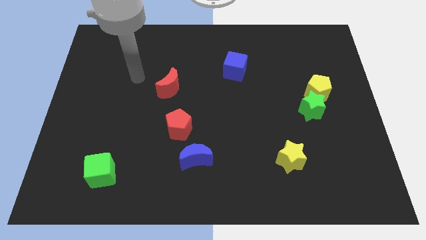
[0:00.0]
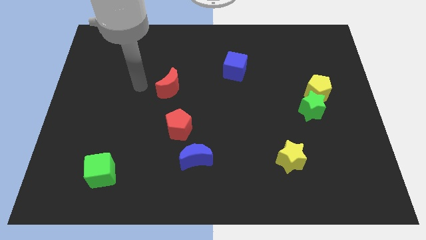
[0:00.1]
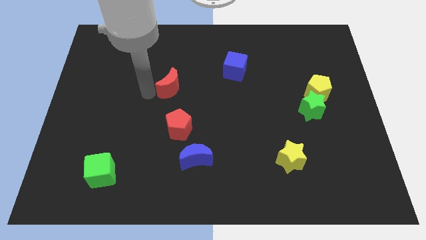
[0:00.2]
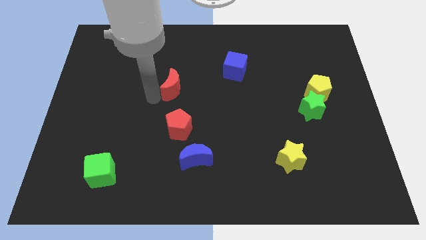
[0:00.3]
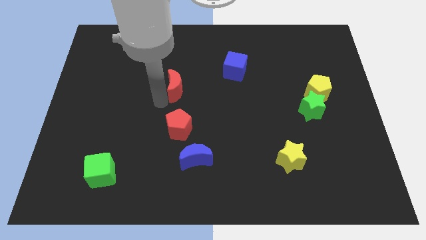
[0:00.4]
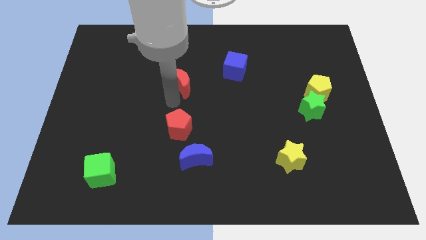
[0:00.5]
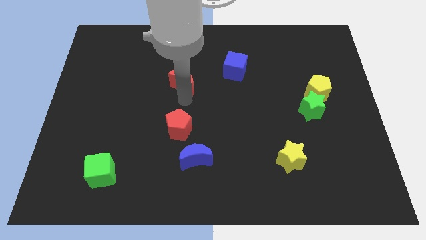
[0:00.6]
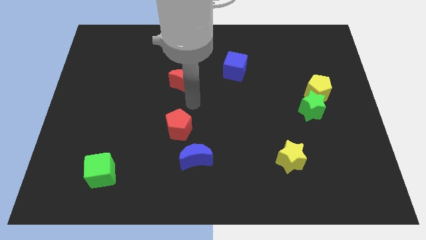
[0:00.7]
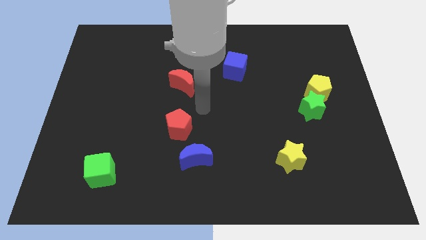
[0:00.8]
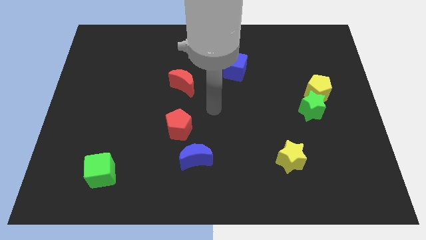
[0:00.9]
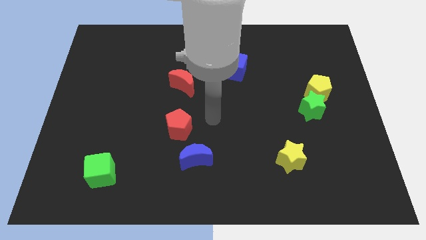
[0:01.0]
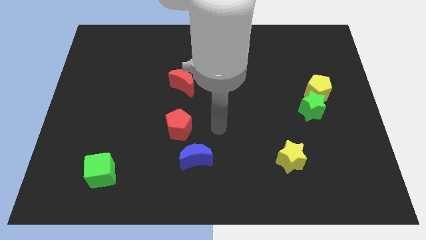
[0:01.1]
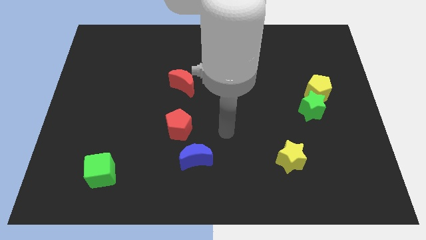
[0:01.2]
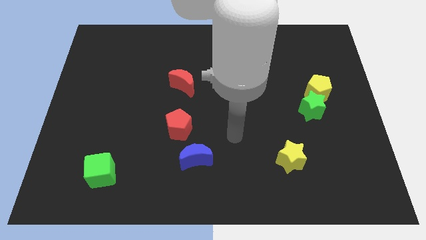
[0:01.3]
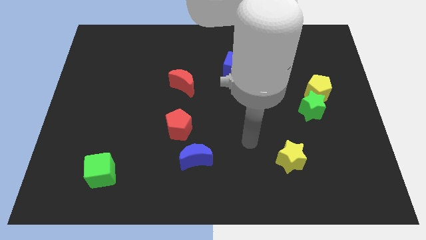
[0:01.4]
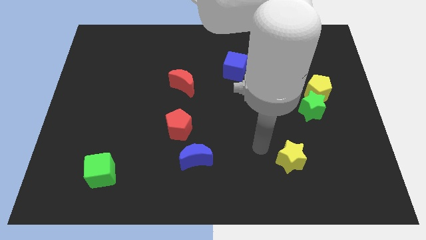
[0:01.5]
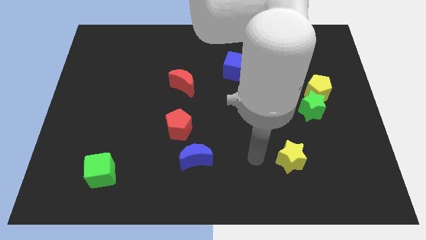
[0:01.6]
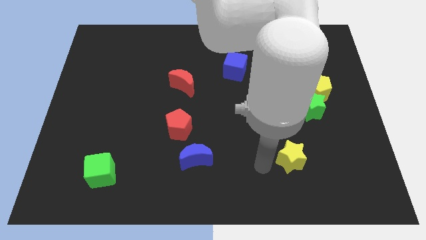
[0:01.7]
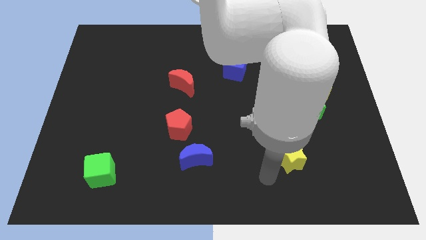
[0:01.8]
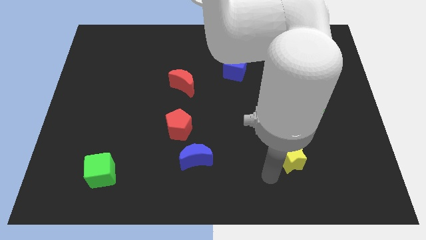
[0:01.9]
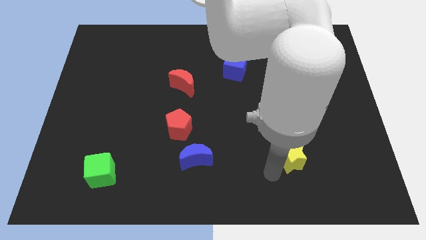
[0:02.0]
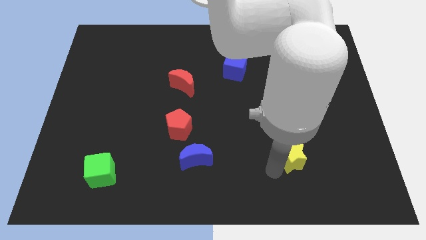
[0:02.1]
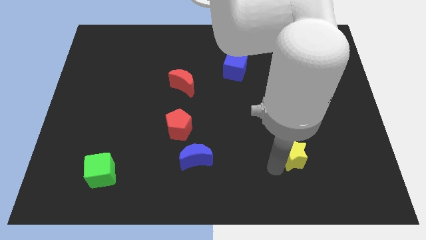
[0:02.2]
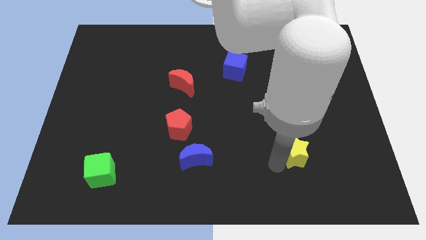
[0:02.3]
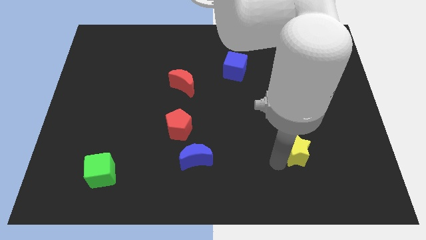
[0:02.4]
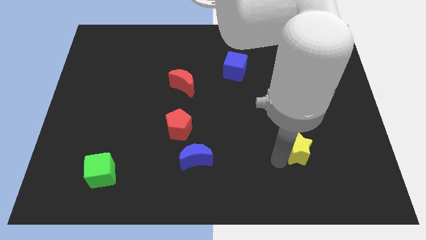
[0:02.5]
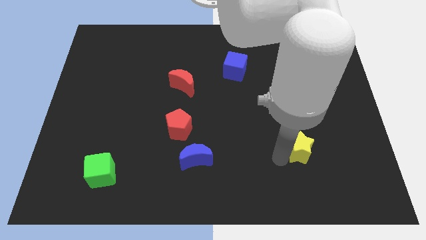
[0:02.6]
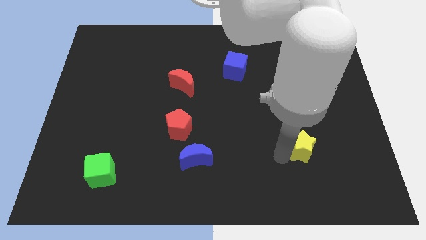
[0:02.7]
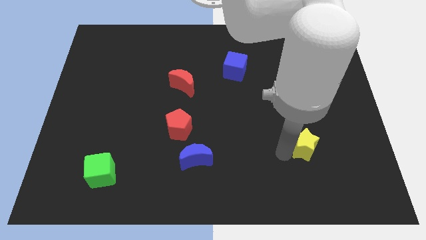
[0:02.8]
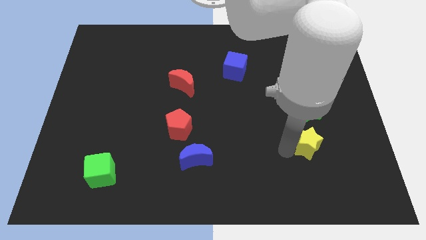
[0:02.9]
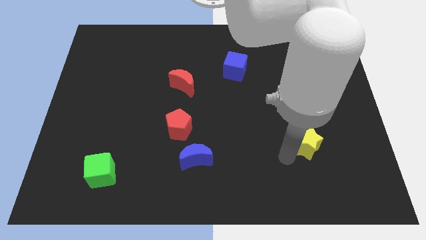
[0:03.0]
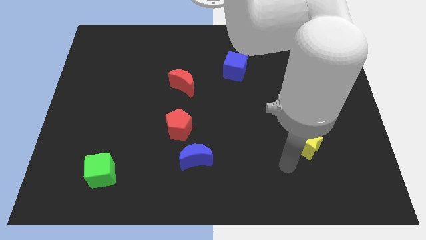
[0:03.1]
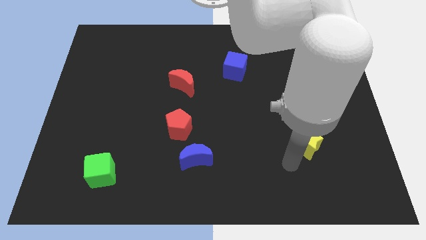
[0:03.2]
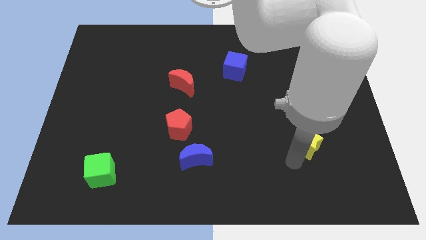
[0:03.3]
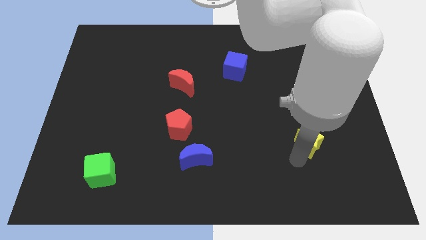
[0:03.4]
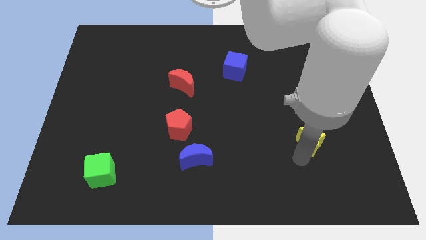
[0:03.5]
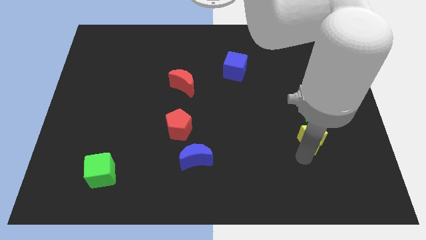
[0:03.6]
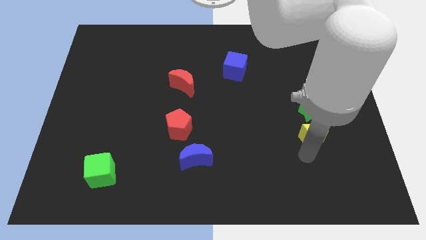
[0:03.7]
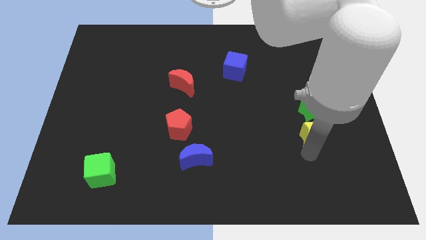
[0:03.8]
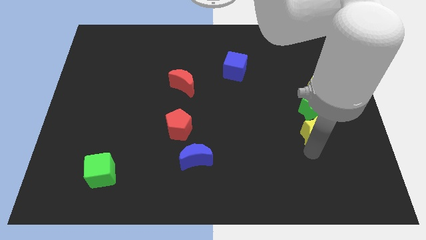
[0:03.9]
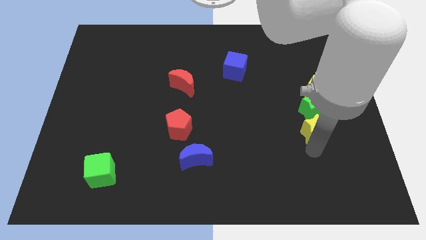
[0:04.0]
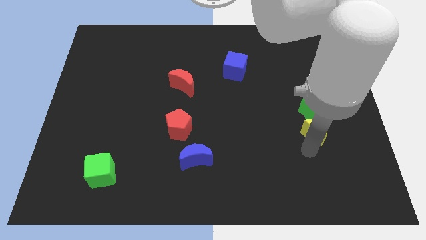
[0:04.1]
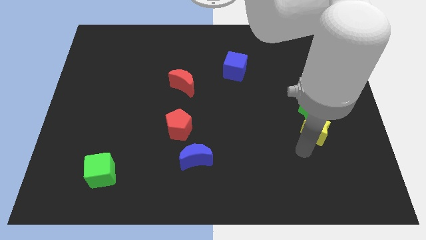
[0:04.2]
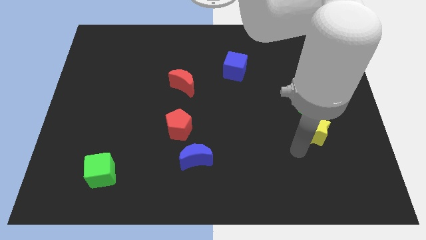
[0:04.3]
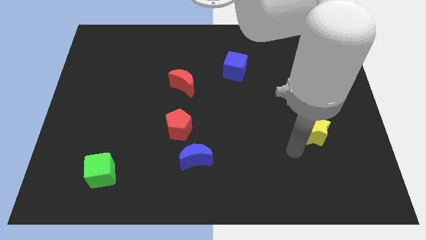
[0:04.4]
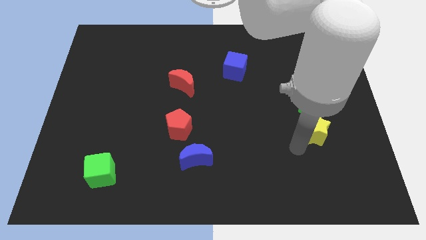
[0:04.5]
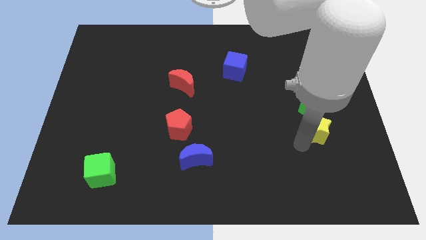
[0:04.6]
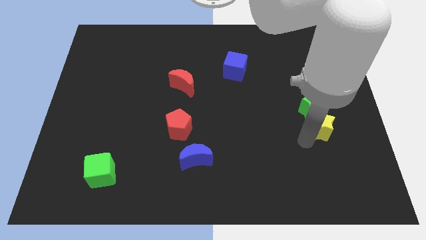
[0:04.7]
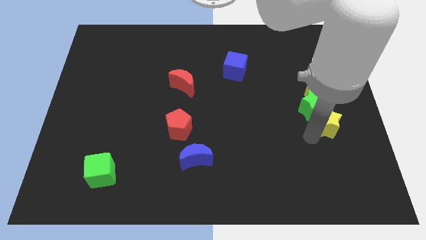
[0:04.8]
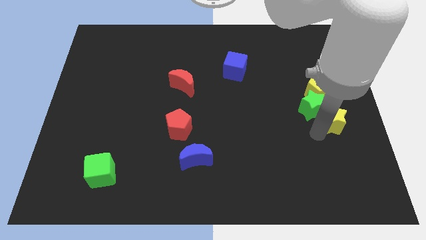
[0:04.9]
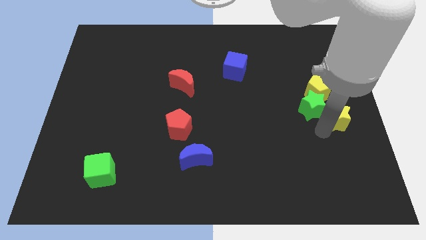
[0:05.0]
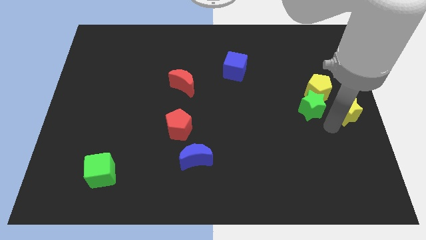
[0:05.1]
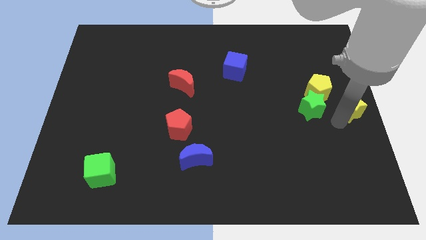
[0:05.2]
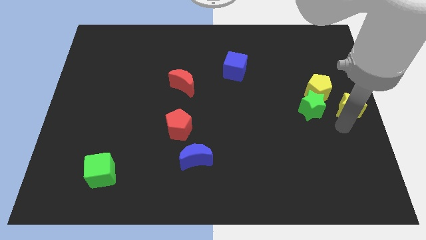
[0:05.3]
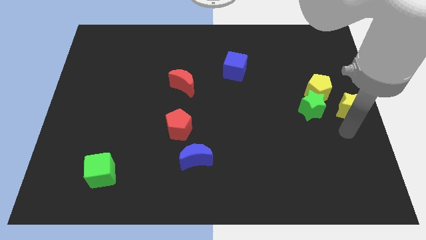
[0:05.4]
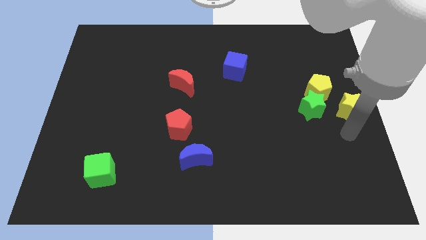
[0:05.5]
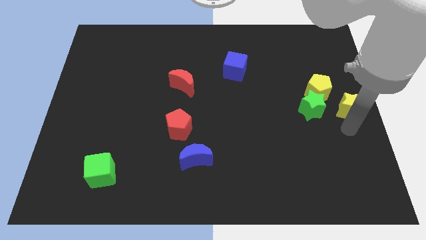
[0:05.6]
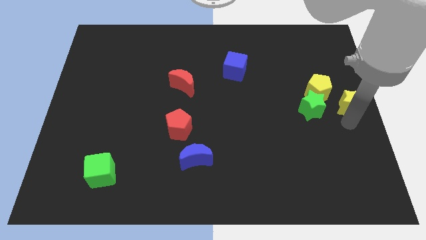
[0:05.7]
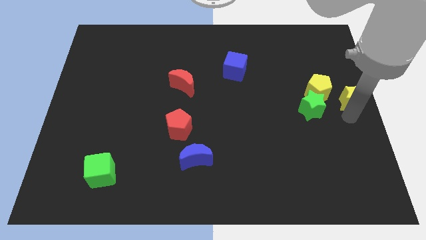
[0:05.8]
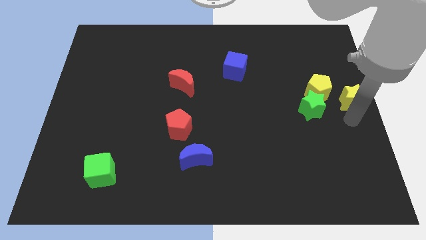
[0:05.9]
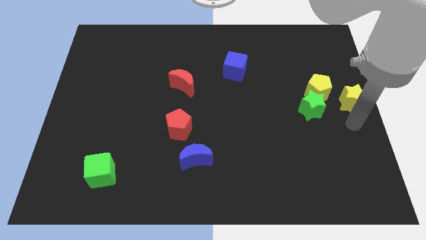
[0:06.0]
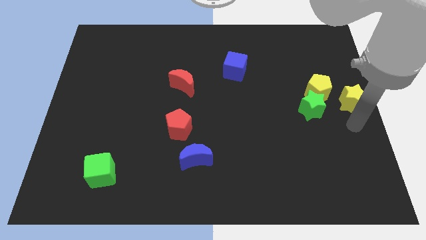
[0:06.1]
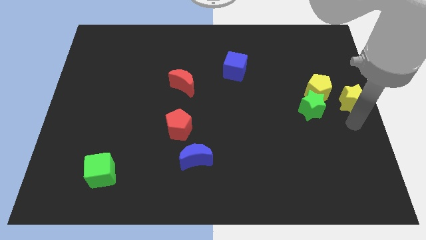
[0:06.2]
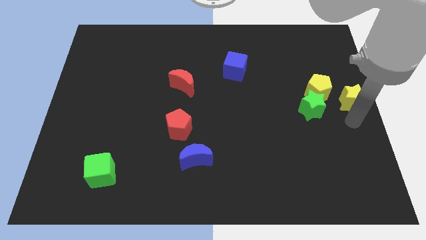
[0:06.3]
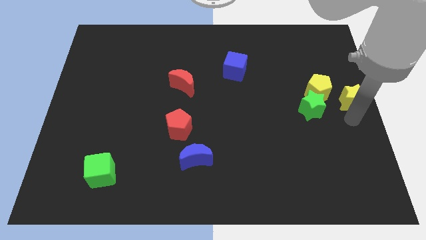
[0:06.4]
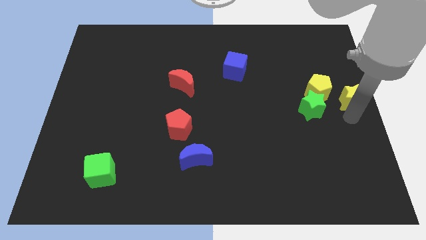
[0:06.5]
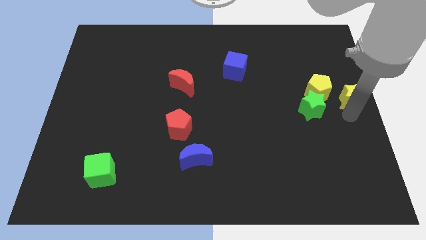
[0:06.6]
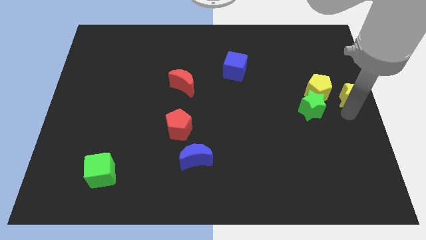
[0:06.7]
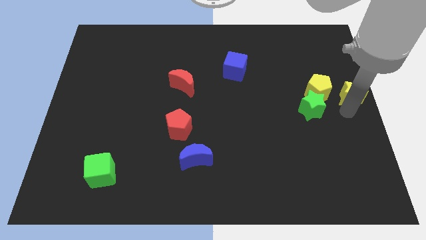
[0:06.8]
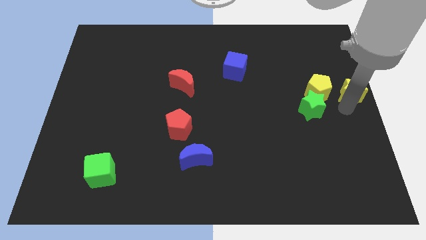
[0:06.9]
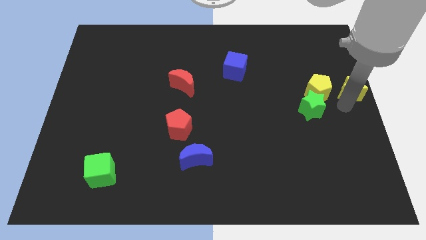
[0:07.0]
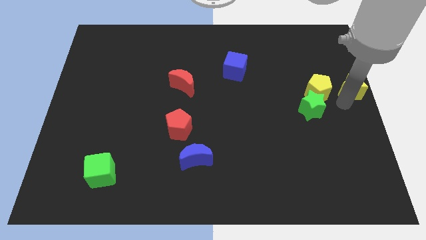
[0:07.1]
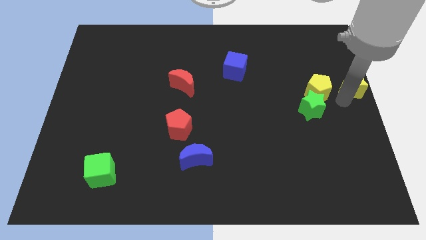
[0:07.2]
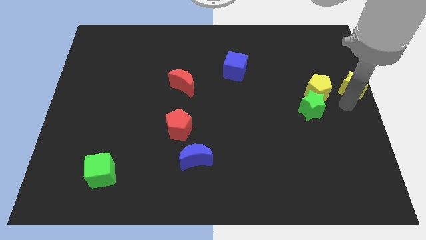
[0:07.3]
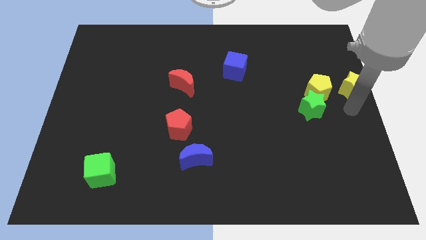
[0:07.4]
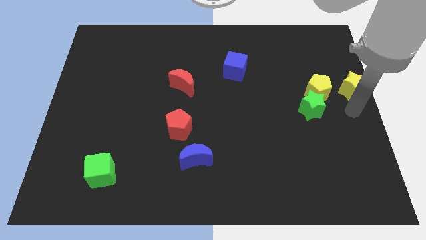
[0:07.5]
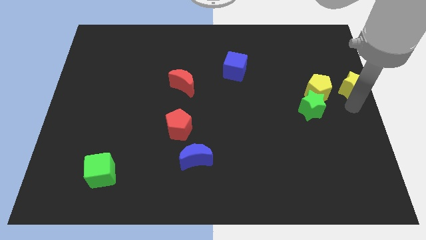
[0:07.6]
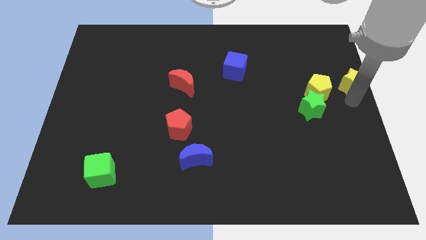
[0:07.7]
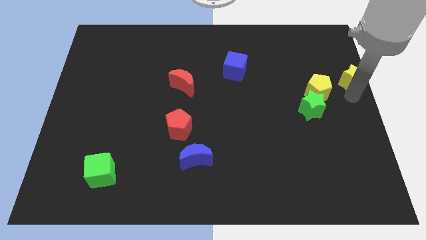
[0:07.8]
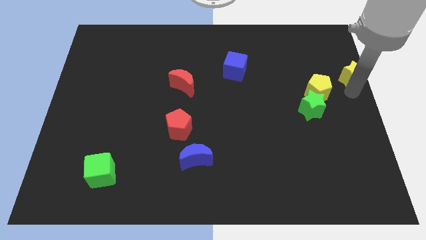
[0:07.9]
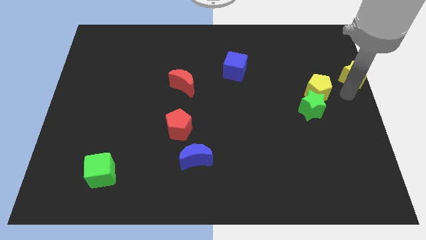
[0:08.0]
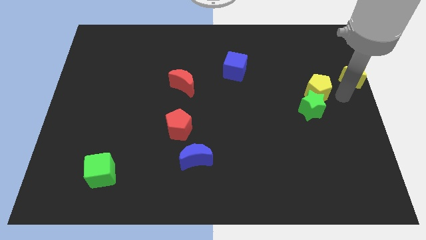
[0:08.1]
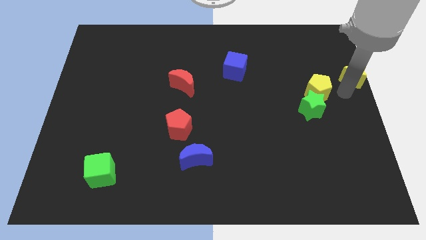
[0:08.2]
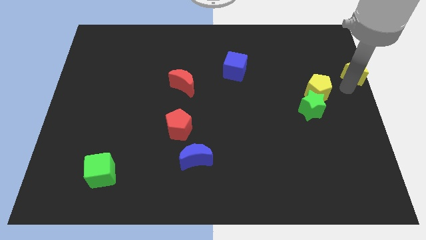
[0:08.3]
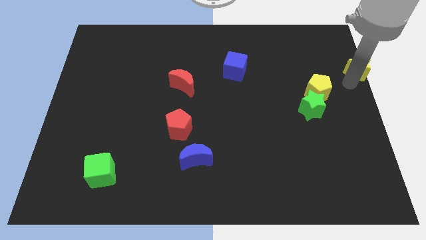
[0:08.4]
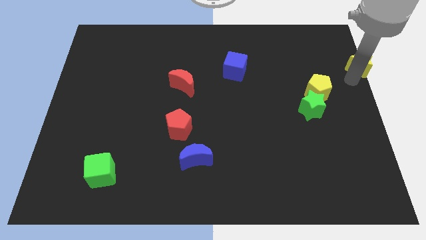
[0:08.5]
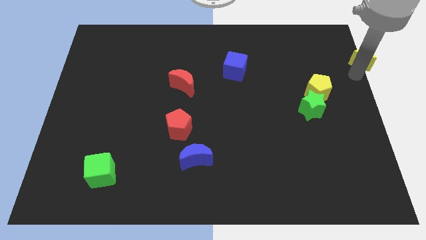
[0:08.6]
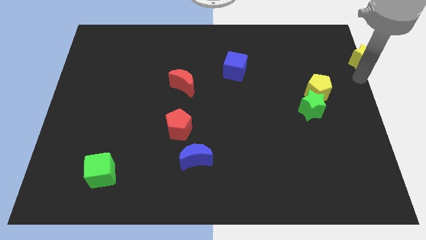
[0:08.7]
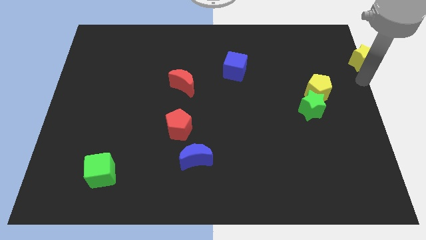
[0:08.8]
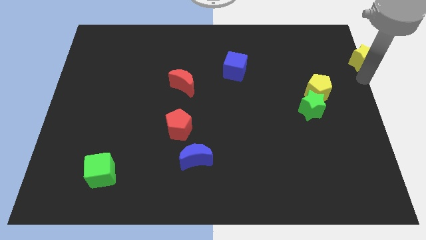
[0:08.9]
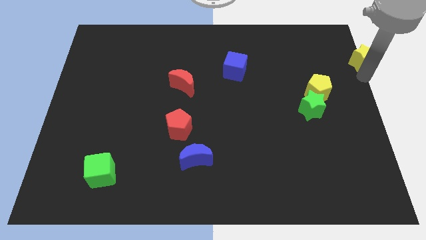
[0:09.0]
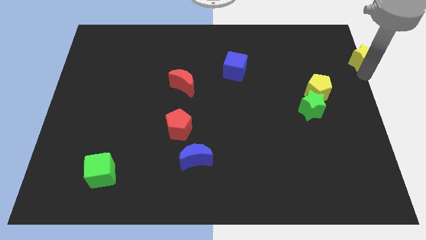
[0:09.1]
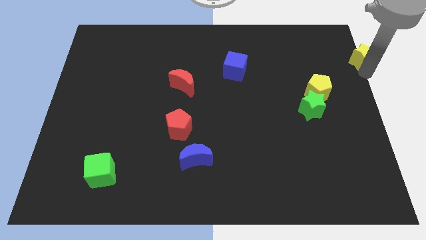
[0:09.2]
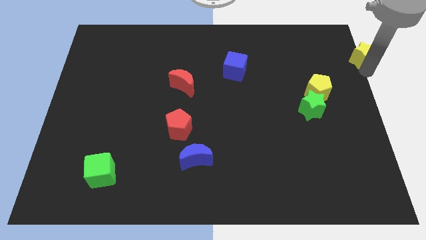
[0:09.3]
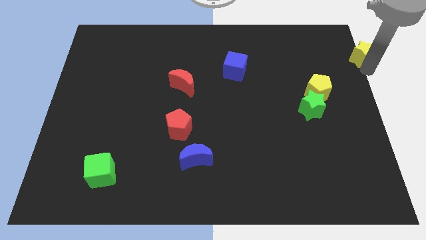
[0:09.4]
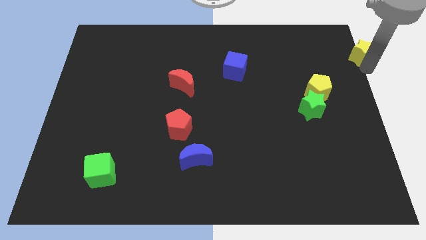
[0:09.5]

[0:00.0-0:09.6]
move the yellow star to the top right corner
